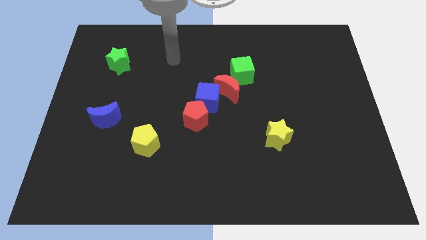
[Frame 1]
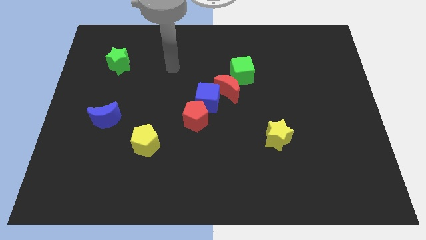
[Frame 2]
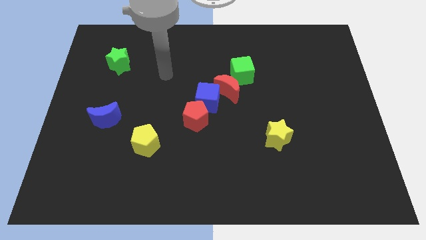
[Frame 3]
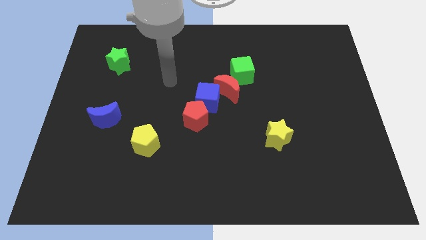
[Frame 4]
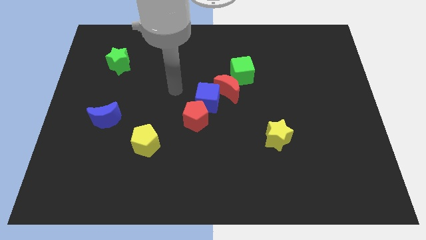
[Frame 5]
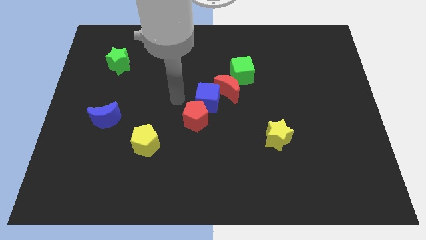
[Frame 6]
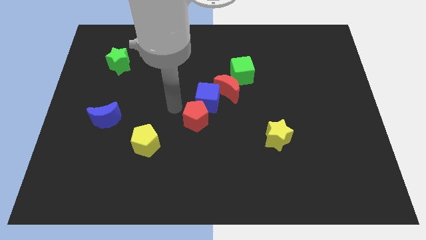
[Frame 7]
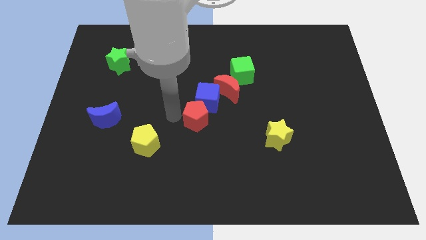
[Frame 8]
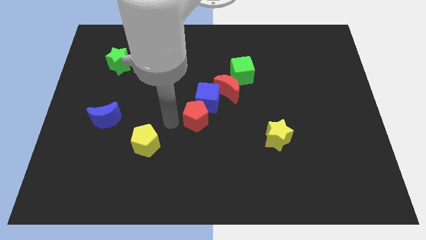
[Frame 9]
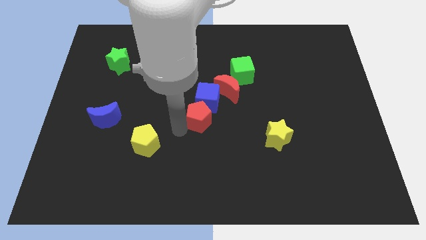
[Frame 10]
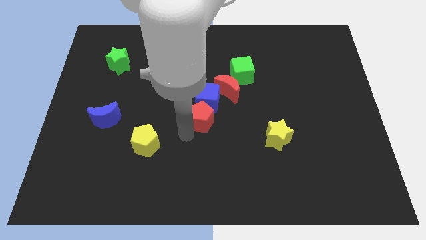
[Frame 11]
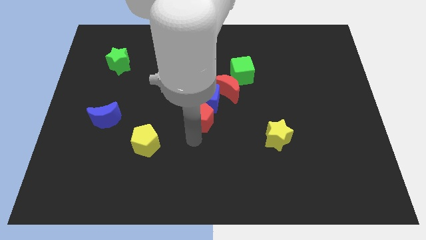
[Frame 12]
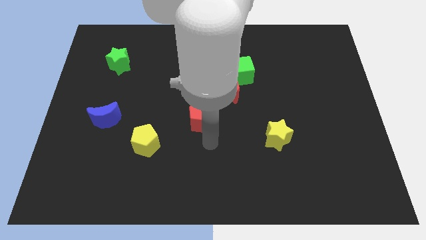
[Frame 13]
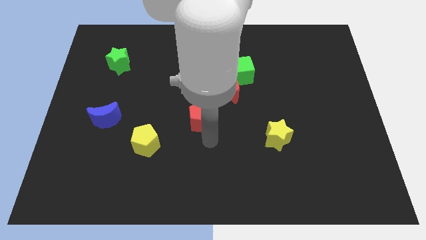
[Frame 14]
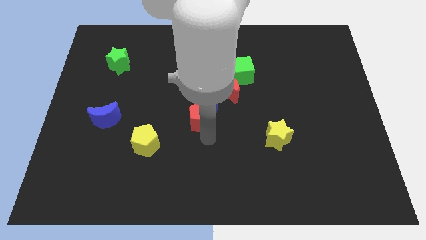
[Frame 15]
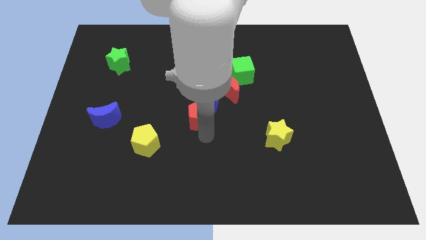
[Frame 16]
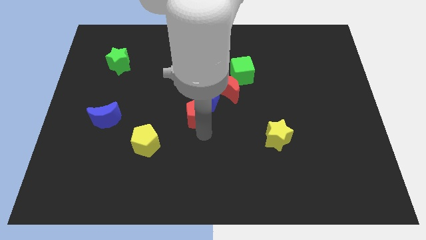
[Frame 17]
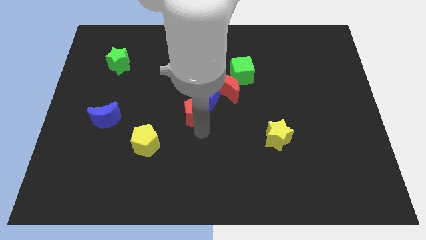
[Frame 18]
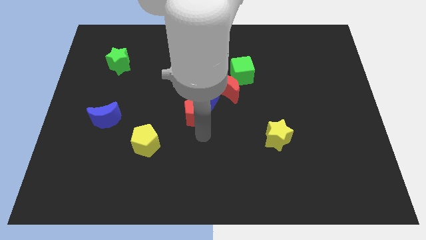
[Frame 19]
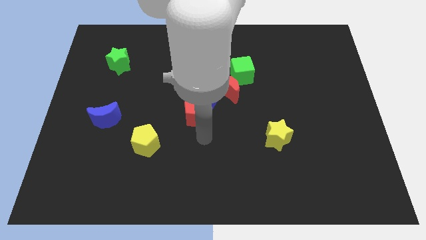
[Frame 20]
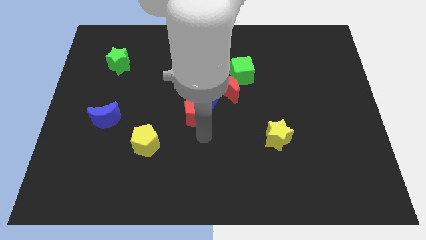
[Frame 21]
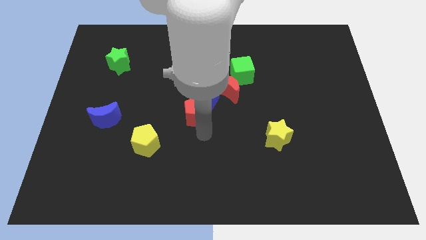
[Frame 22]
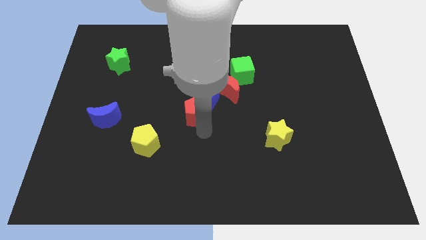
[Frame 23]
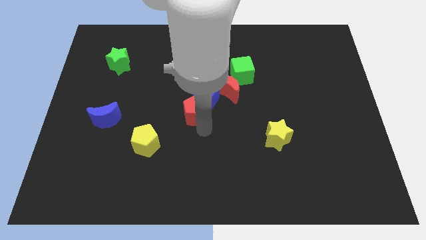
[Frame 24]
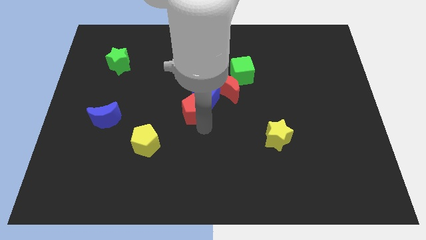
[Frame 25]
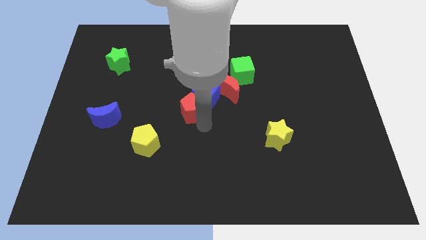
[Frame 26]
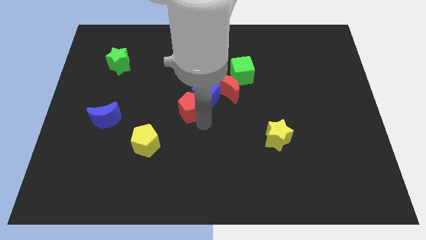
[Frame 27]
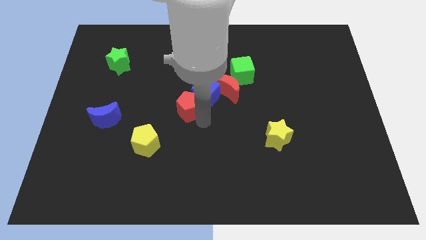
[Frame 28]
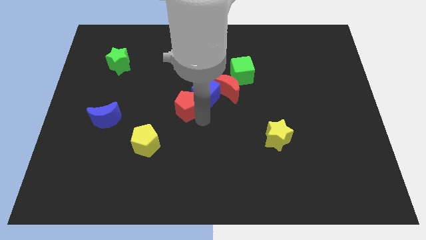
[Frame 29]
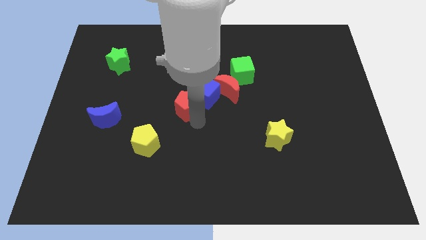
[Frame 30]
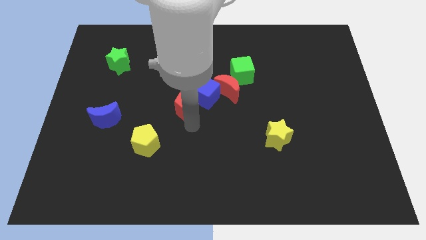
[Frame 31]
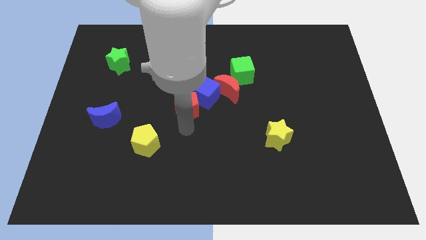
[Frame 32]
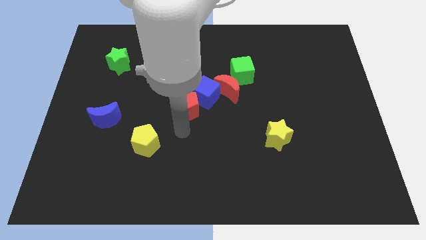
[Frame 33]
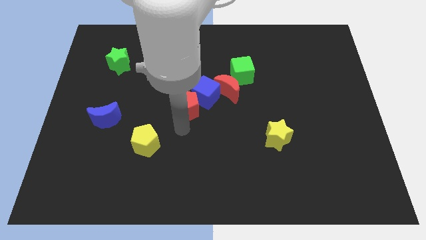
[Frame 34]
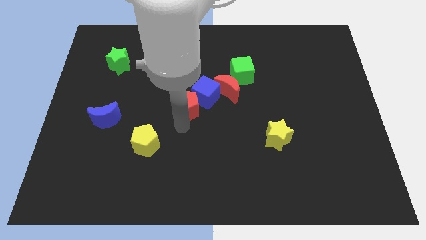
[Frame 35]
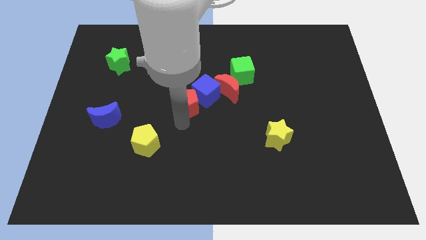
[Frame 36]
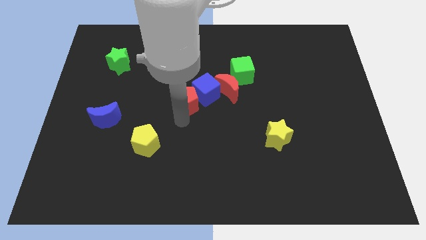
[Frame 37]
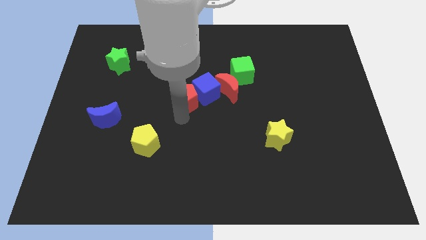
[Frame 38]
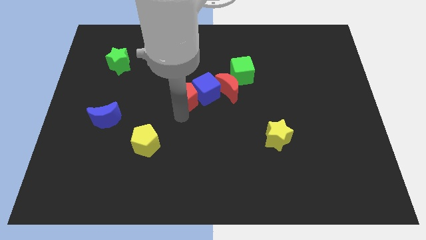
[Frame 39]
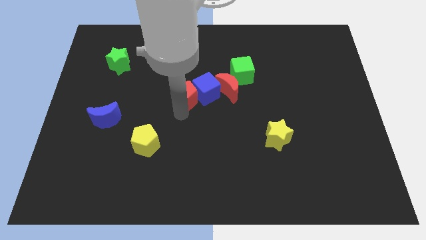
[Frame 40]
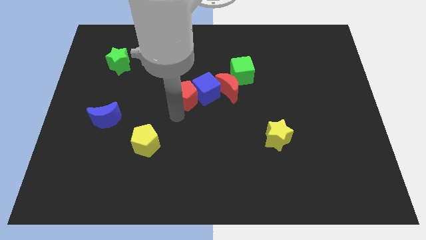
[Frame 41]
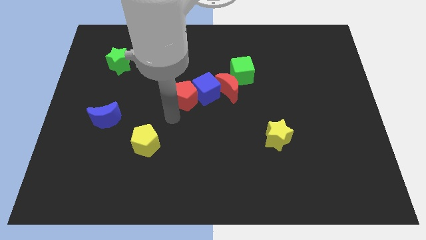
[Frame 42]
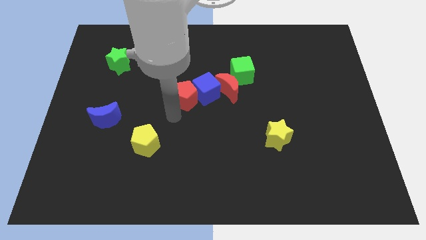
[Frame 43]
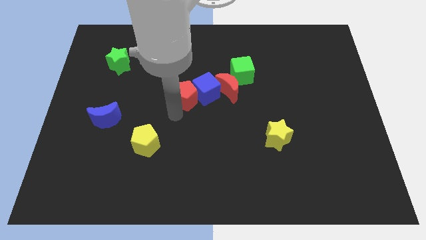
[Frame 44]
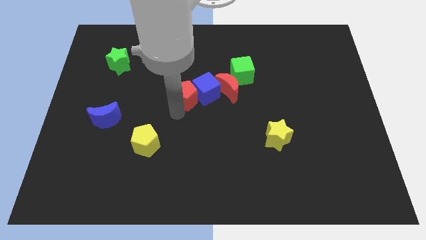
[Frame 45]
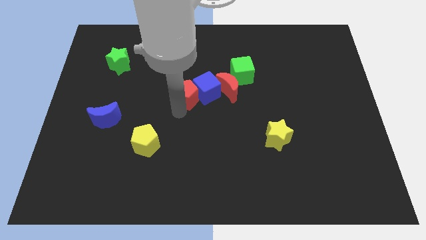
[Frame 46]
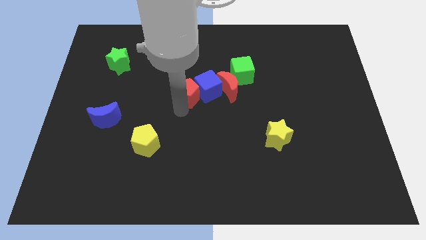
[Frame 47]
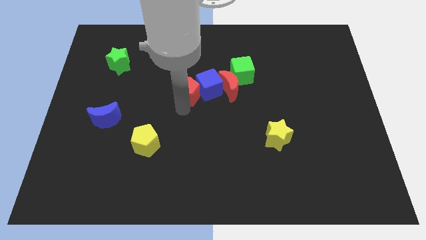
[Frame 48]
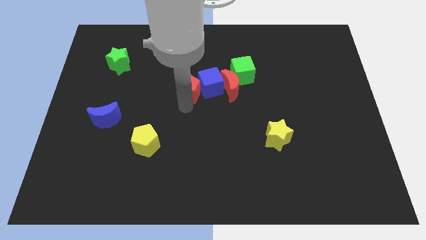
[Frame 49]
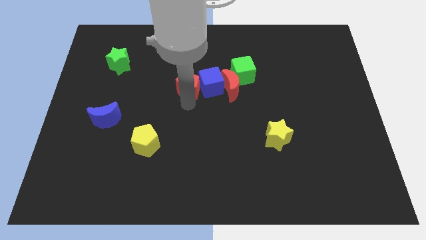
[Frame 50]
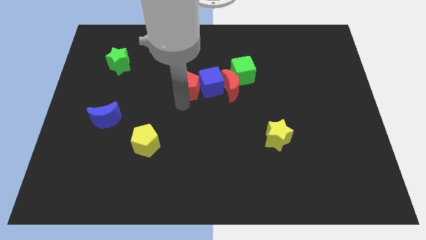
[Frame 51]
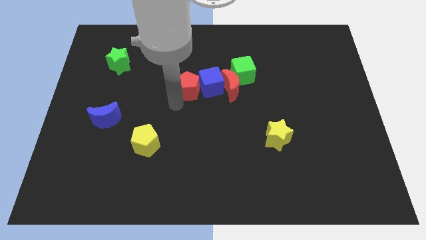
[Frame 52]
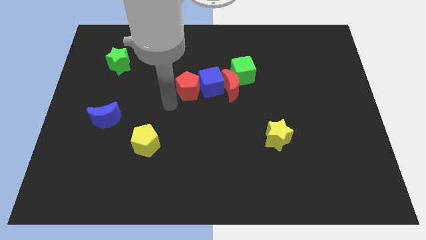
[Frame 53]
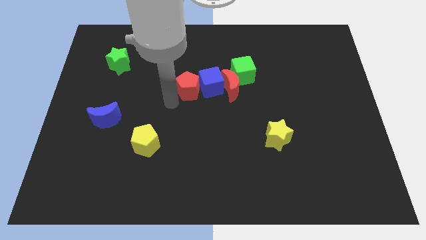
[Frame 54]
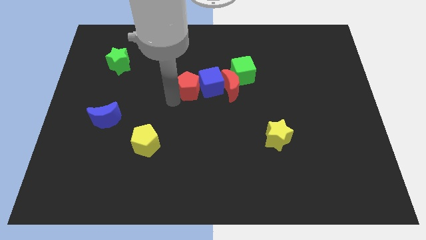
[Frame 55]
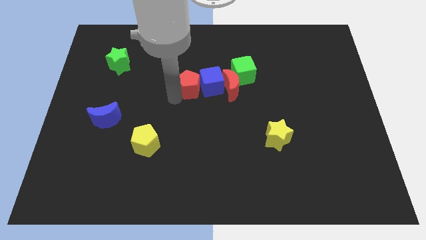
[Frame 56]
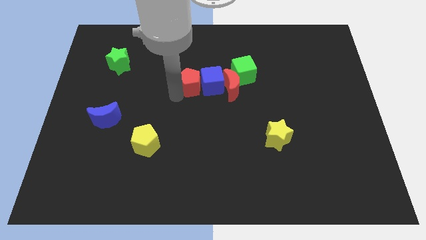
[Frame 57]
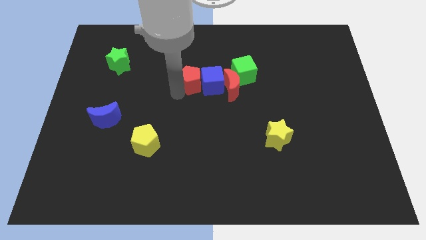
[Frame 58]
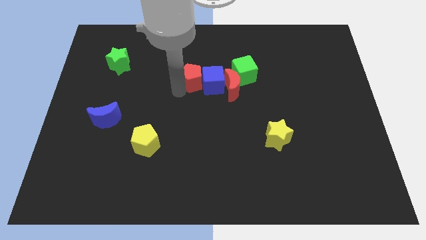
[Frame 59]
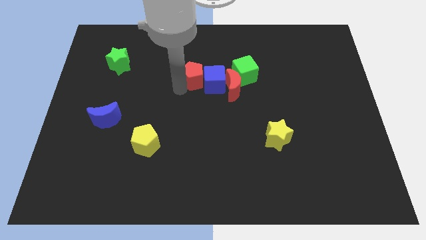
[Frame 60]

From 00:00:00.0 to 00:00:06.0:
push the red pentagon to the top left of the red moon
